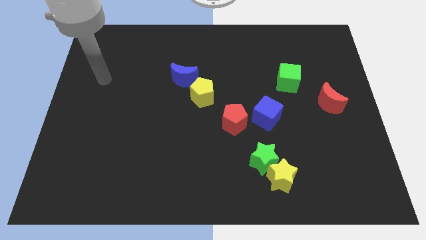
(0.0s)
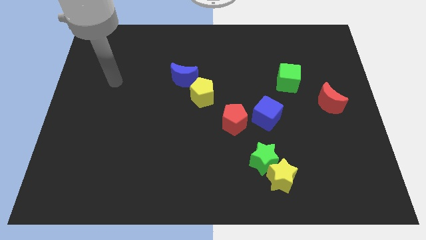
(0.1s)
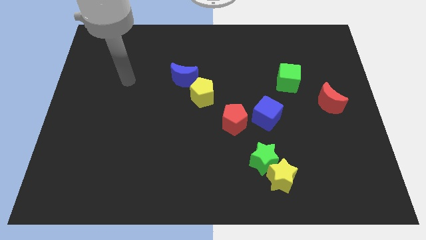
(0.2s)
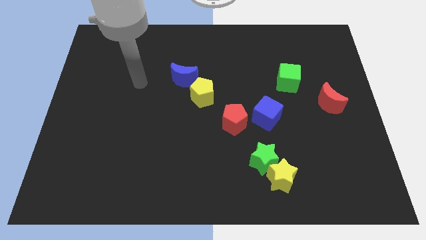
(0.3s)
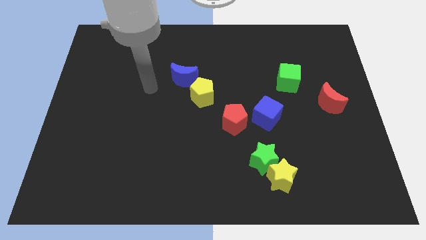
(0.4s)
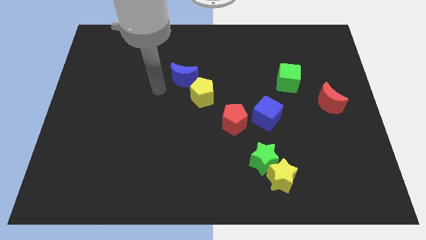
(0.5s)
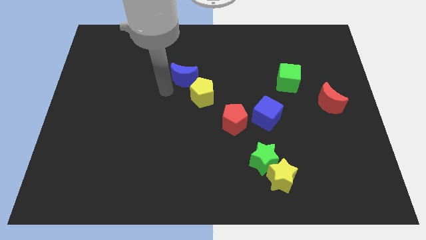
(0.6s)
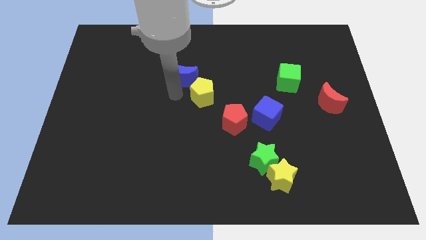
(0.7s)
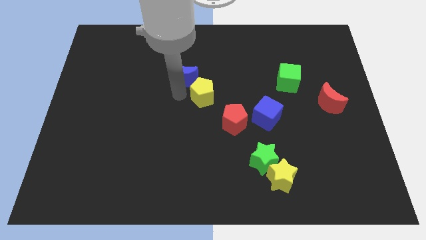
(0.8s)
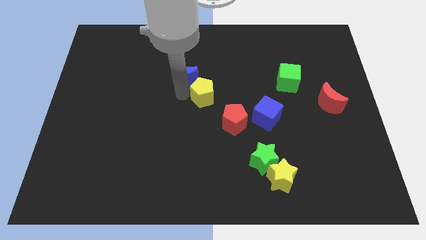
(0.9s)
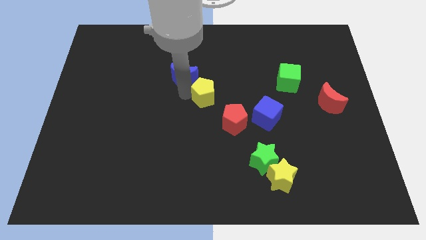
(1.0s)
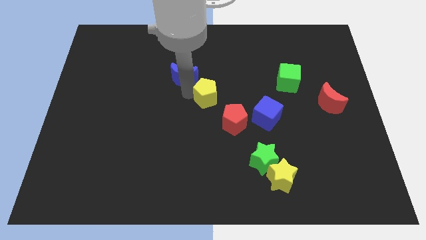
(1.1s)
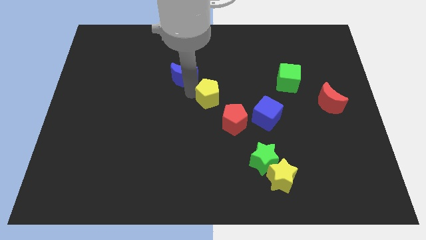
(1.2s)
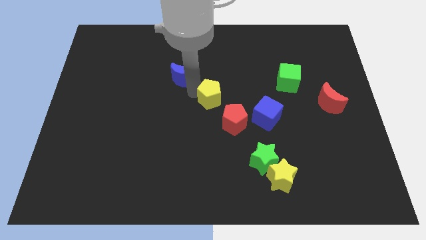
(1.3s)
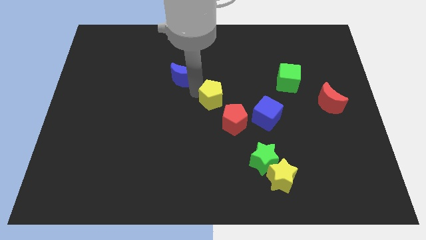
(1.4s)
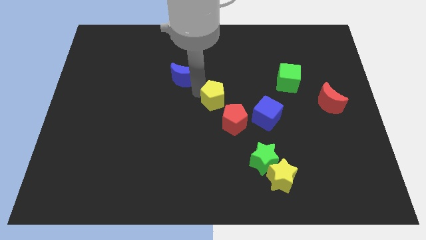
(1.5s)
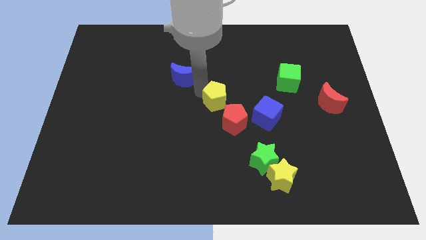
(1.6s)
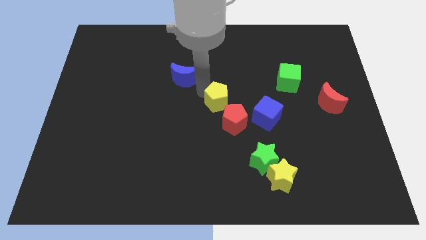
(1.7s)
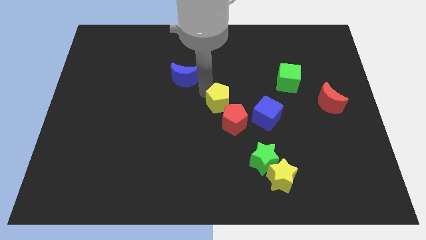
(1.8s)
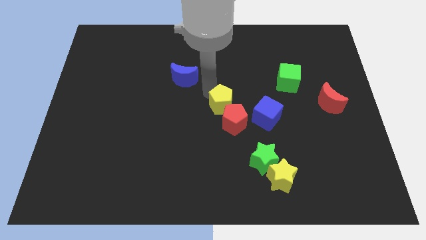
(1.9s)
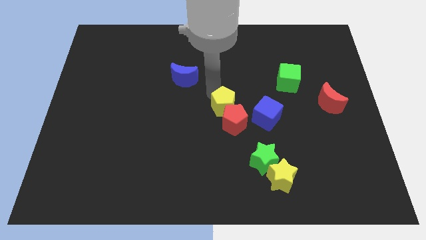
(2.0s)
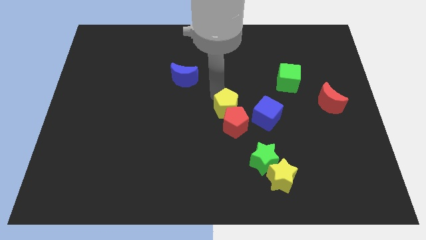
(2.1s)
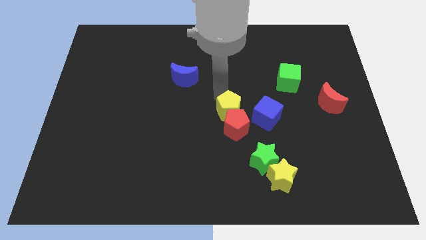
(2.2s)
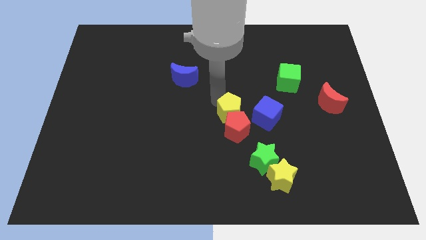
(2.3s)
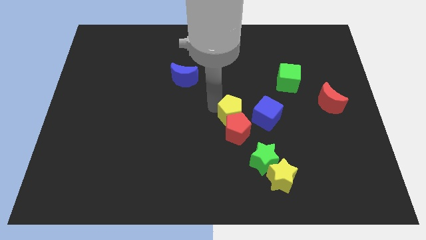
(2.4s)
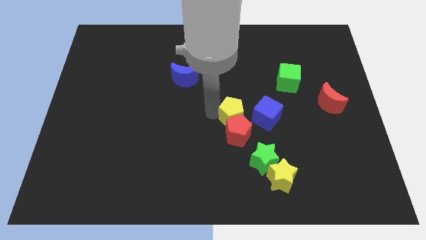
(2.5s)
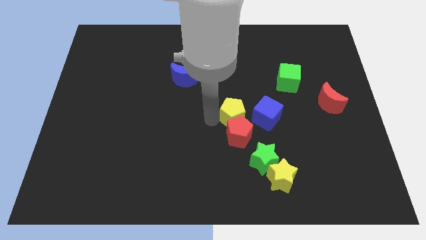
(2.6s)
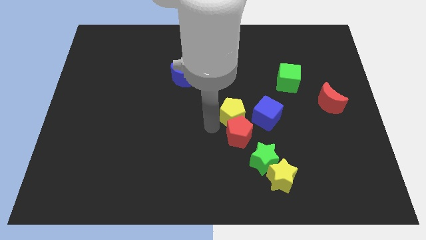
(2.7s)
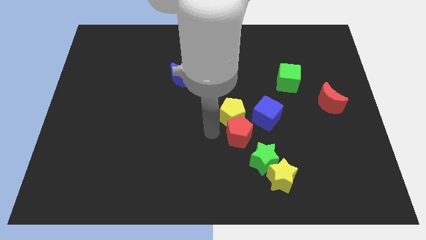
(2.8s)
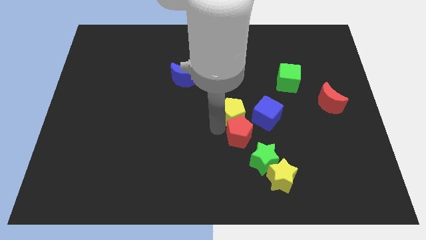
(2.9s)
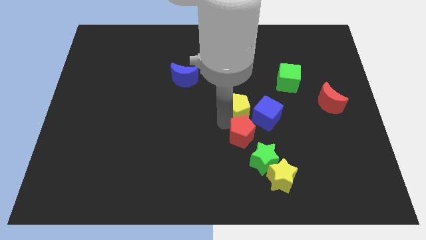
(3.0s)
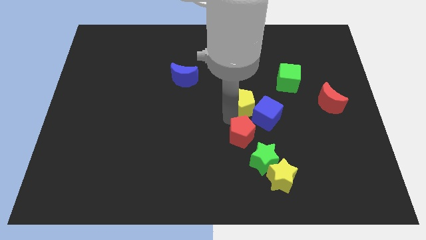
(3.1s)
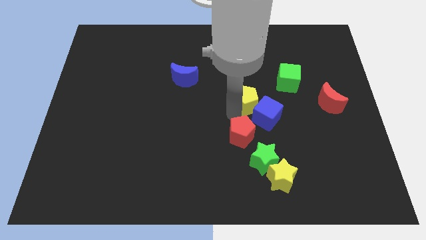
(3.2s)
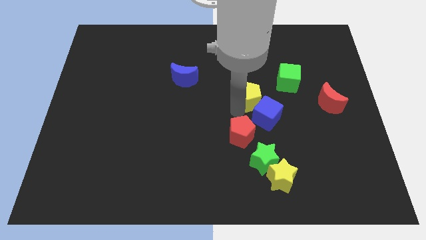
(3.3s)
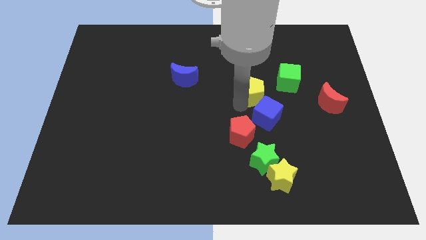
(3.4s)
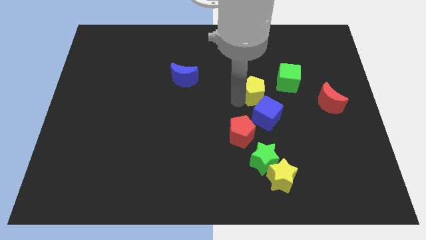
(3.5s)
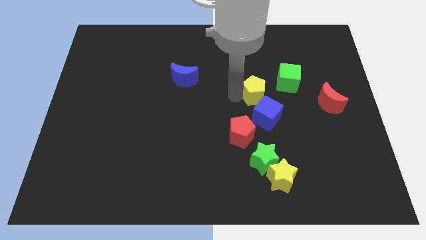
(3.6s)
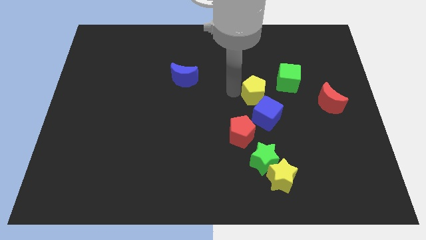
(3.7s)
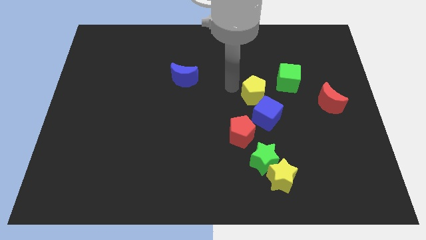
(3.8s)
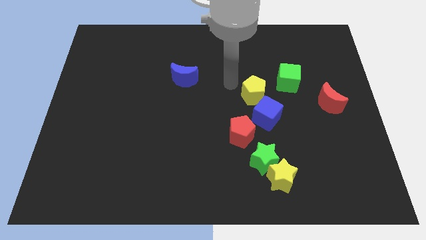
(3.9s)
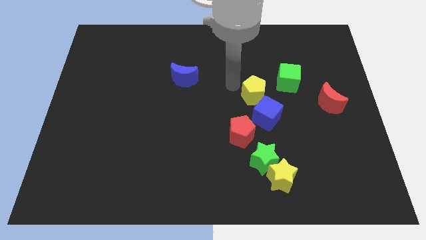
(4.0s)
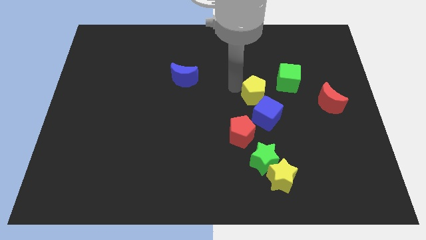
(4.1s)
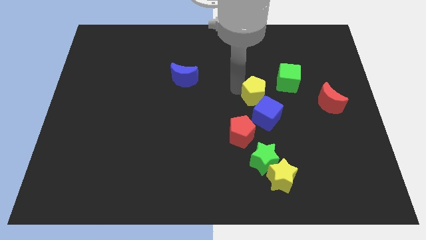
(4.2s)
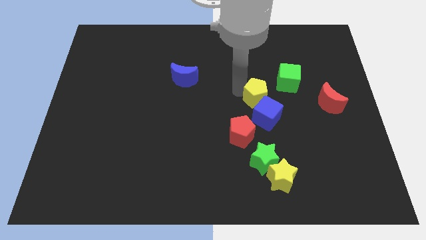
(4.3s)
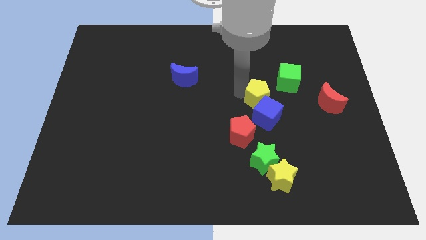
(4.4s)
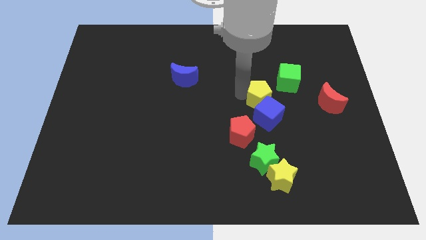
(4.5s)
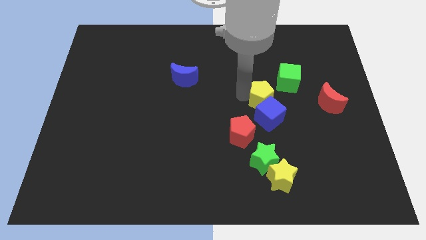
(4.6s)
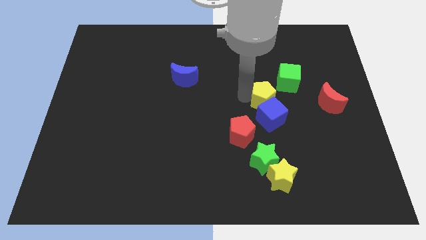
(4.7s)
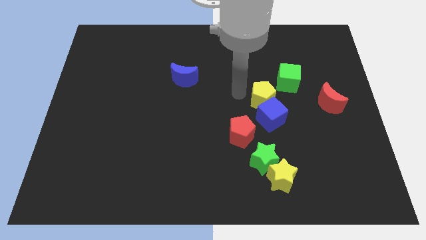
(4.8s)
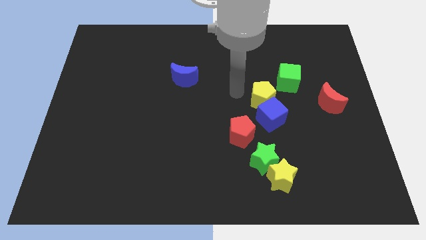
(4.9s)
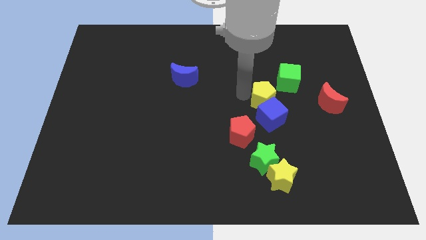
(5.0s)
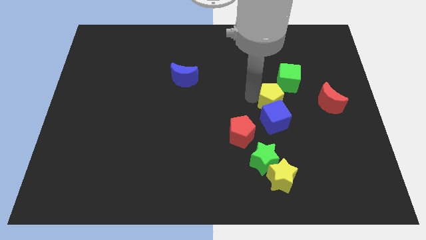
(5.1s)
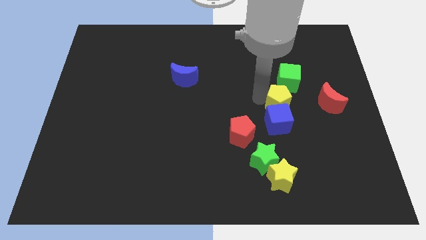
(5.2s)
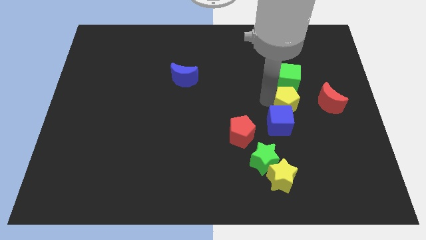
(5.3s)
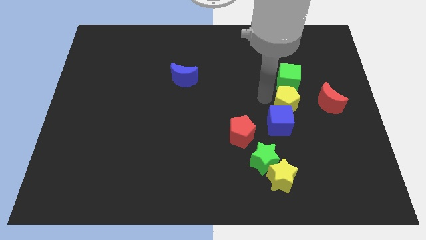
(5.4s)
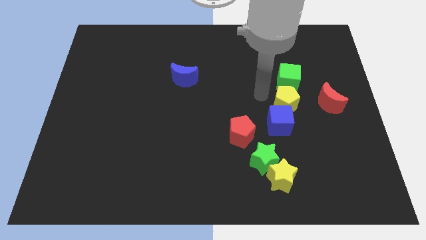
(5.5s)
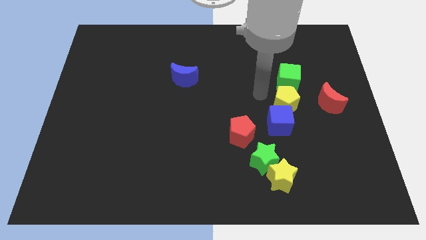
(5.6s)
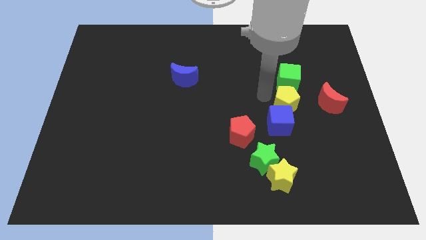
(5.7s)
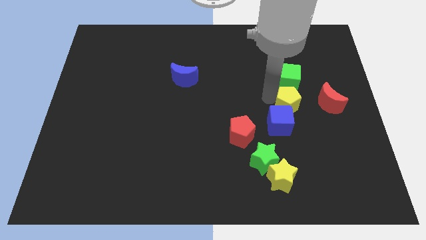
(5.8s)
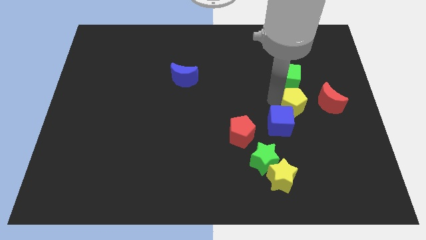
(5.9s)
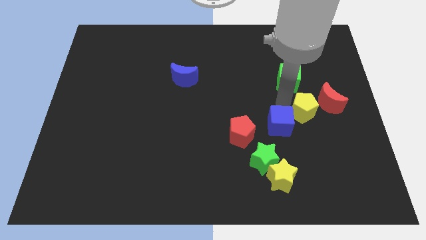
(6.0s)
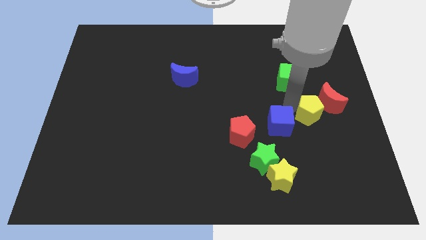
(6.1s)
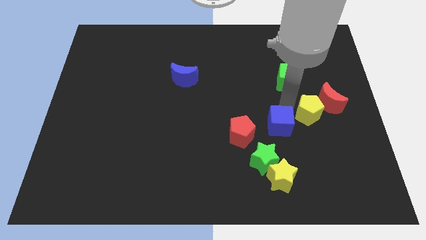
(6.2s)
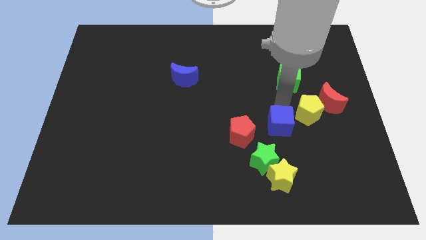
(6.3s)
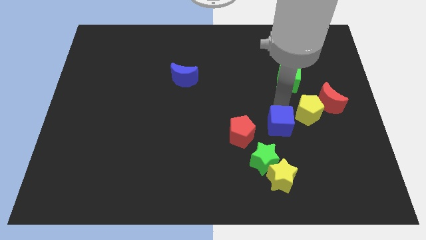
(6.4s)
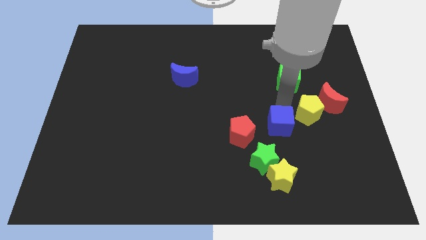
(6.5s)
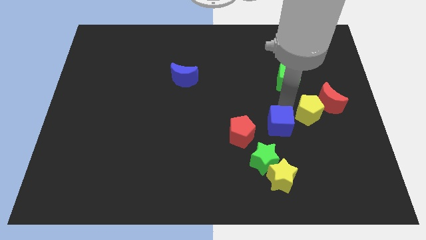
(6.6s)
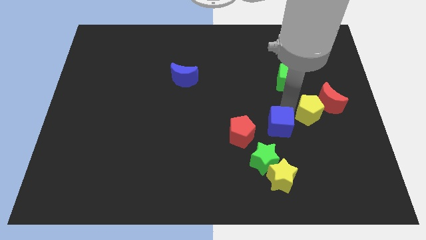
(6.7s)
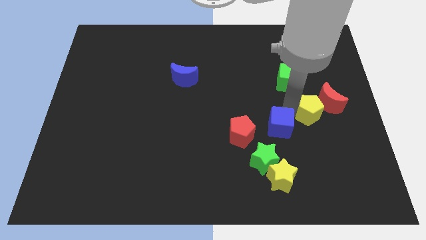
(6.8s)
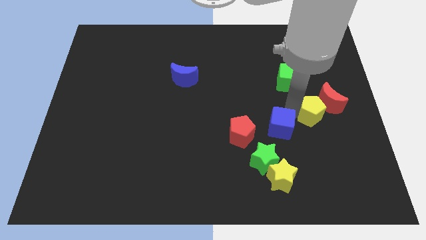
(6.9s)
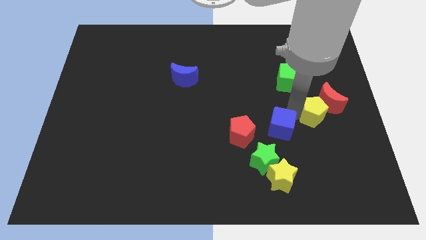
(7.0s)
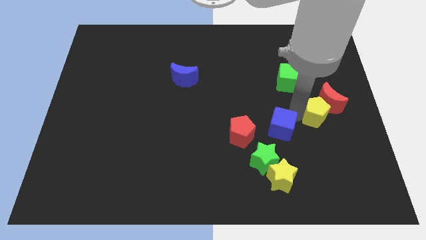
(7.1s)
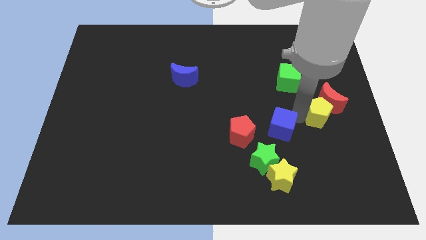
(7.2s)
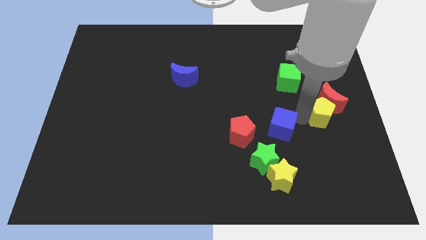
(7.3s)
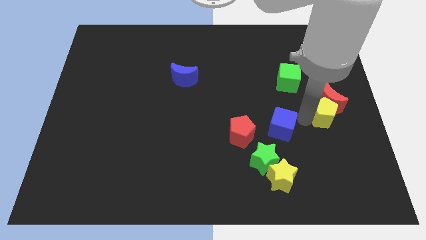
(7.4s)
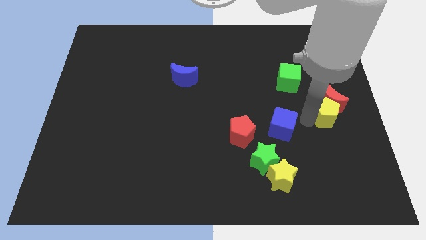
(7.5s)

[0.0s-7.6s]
move the yellow pentagon to the right side
